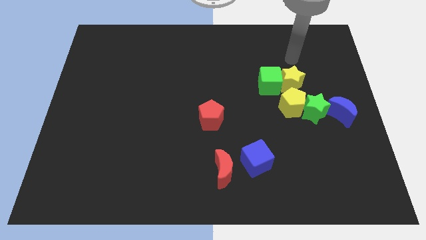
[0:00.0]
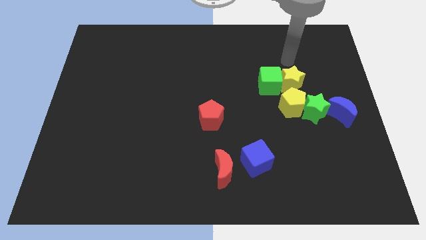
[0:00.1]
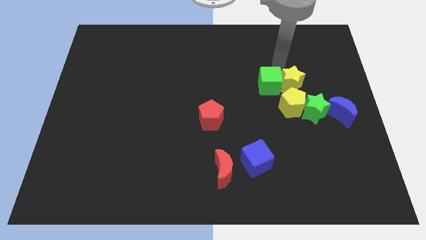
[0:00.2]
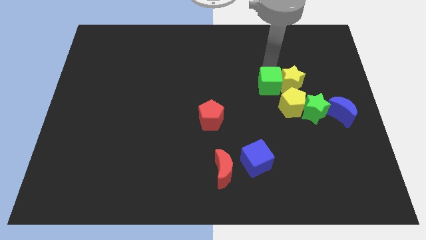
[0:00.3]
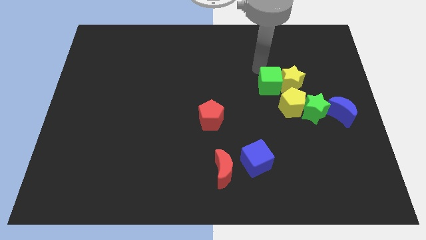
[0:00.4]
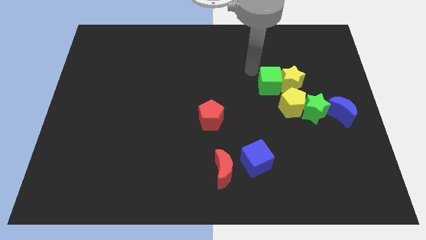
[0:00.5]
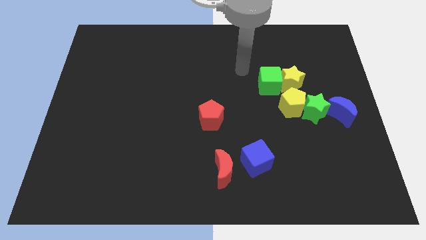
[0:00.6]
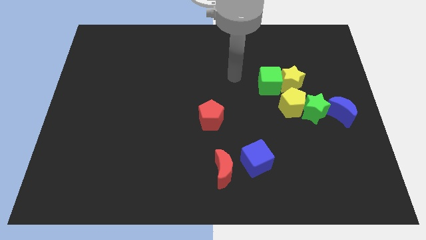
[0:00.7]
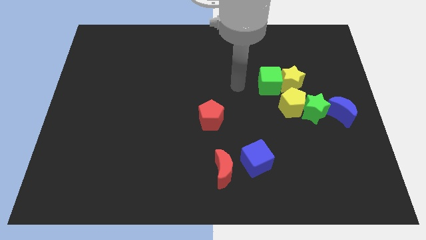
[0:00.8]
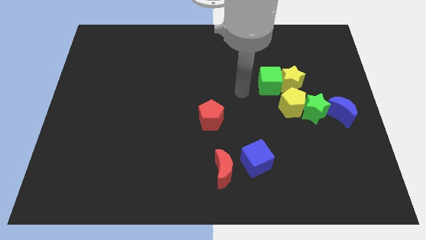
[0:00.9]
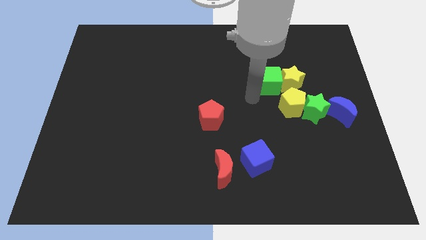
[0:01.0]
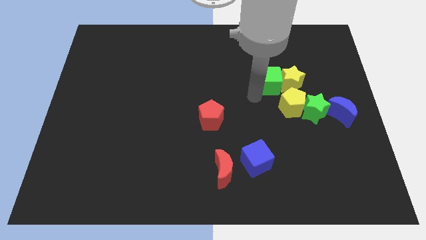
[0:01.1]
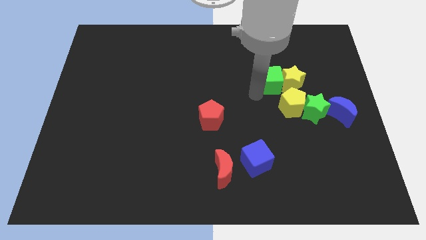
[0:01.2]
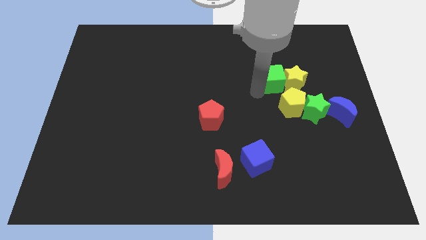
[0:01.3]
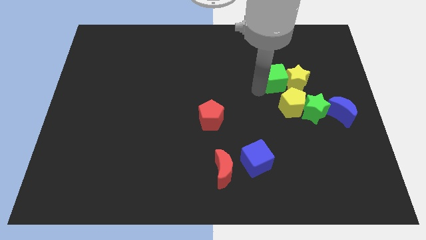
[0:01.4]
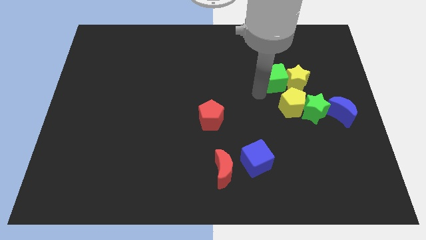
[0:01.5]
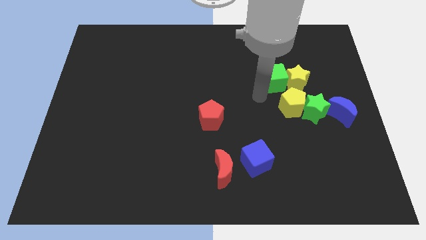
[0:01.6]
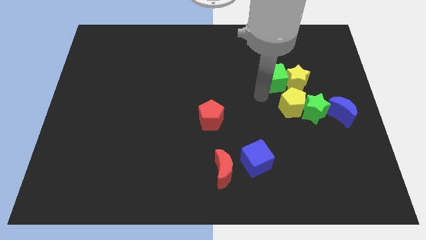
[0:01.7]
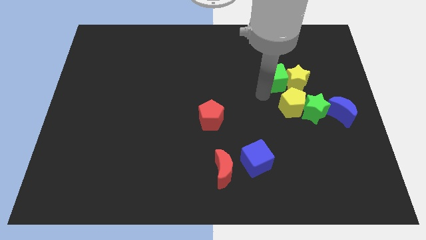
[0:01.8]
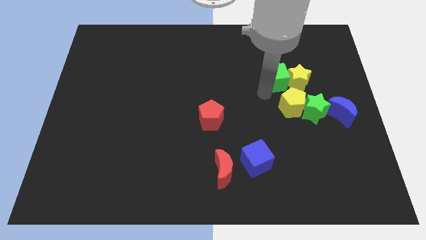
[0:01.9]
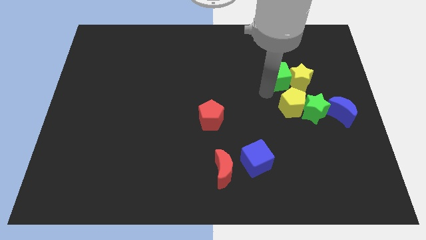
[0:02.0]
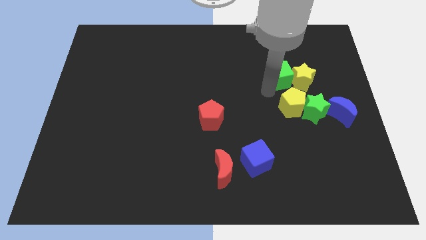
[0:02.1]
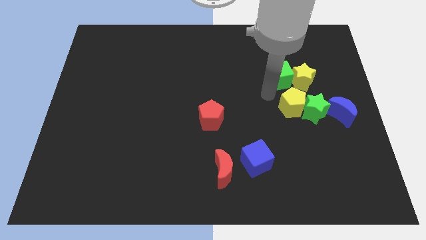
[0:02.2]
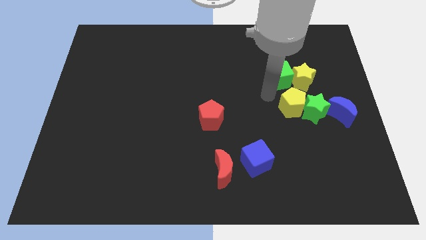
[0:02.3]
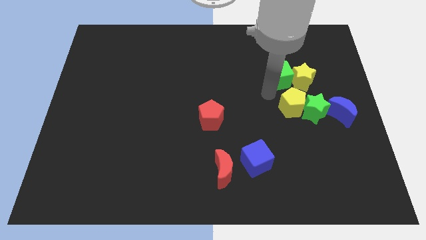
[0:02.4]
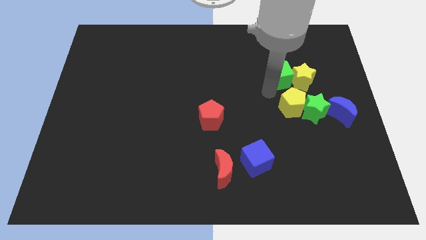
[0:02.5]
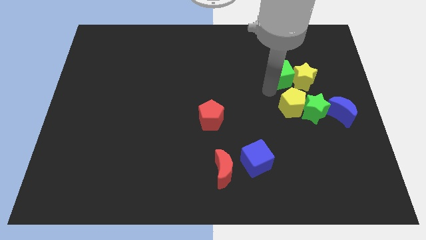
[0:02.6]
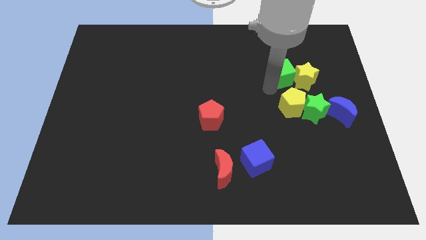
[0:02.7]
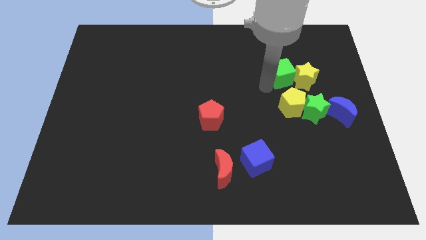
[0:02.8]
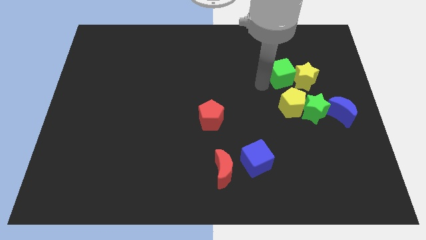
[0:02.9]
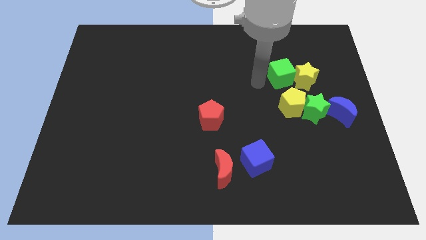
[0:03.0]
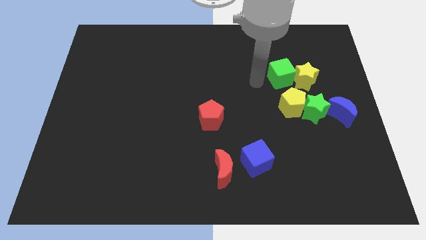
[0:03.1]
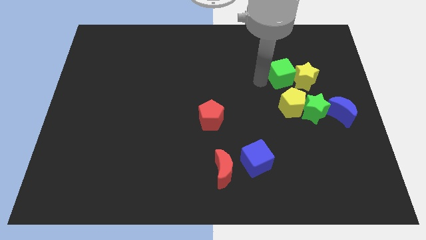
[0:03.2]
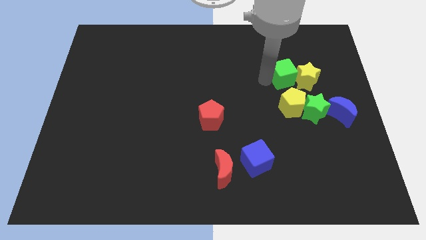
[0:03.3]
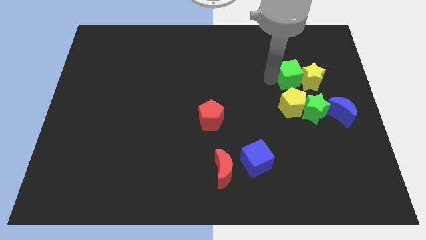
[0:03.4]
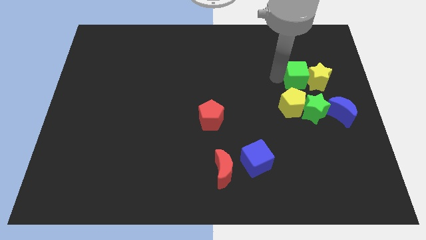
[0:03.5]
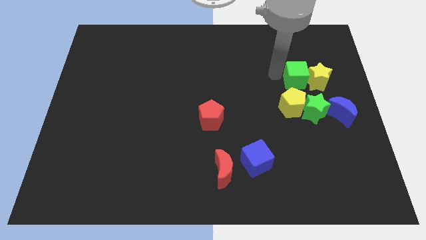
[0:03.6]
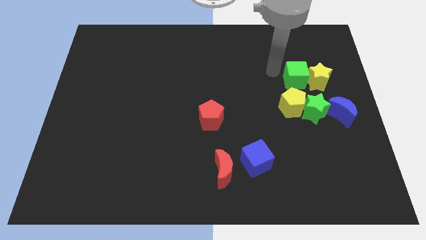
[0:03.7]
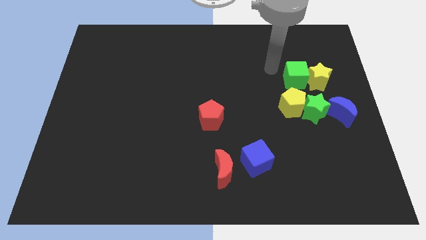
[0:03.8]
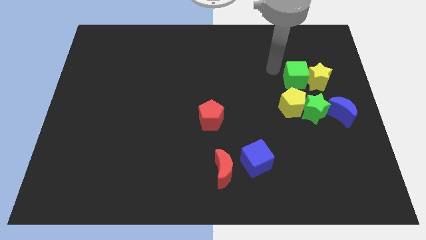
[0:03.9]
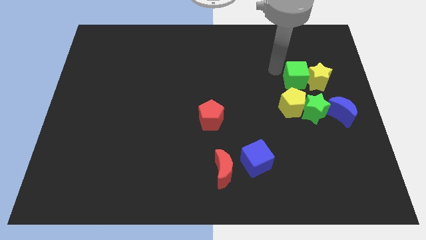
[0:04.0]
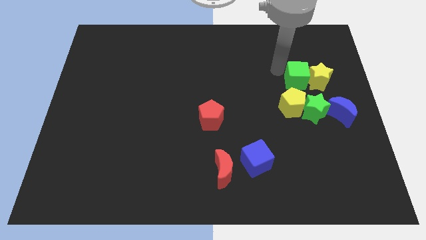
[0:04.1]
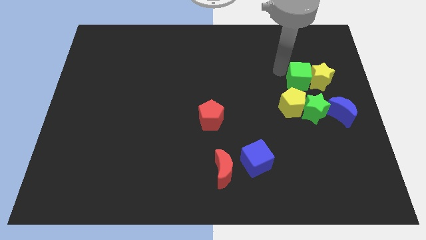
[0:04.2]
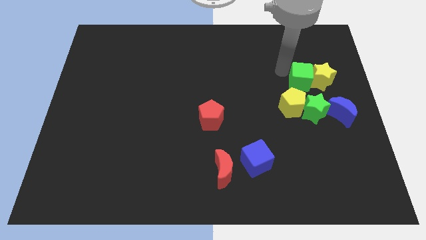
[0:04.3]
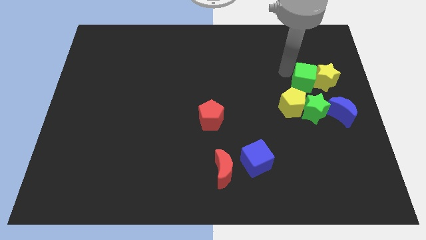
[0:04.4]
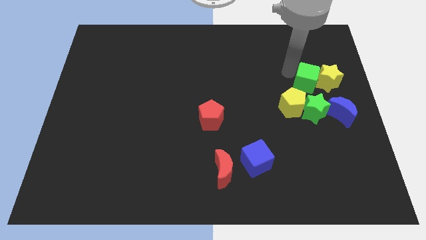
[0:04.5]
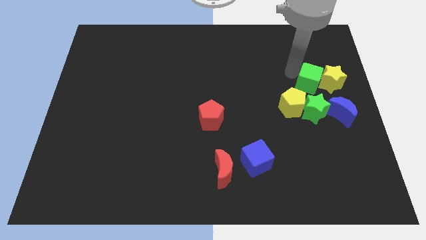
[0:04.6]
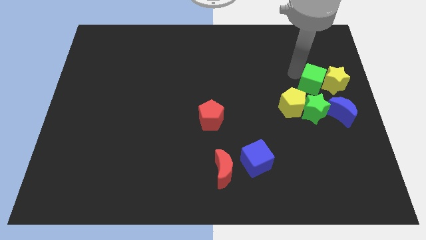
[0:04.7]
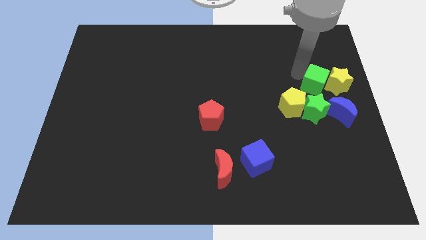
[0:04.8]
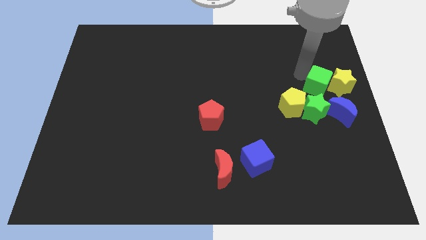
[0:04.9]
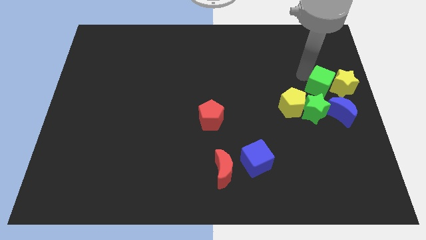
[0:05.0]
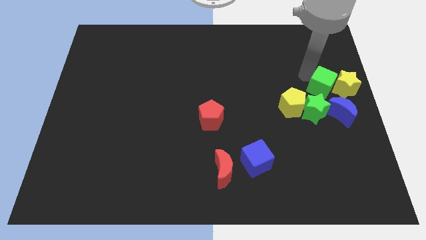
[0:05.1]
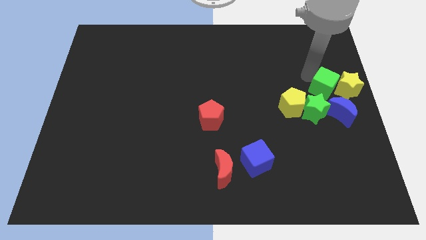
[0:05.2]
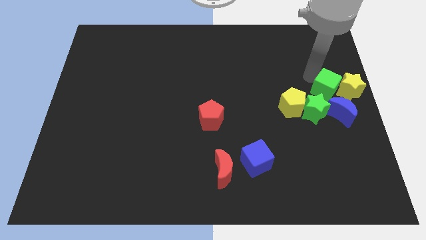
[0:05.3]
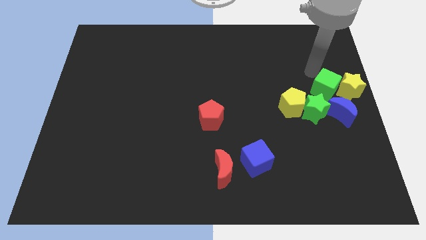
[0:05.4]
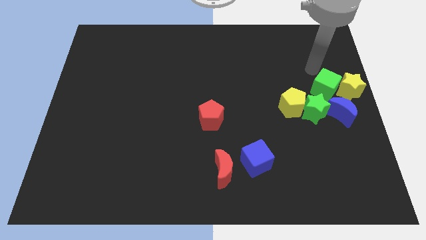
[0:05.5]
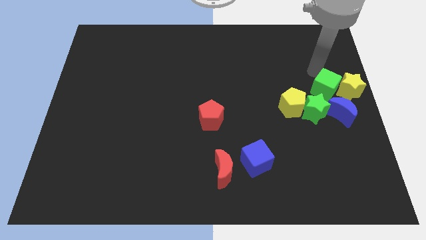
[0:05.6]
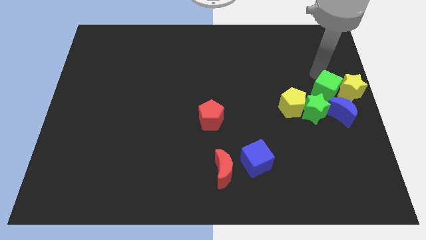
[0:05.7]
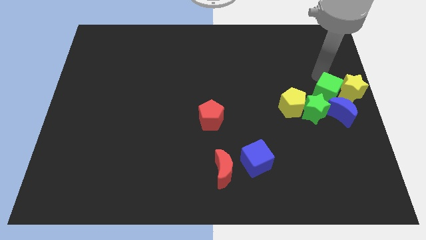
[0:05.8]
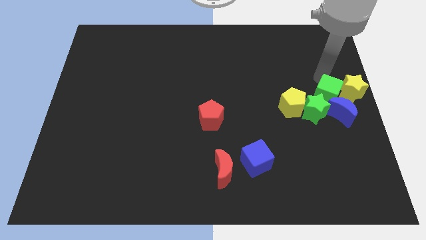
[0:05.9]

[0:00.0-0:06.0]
move the green cube towards the blue moon
